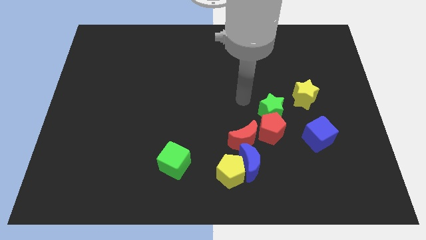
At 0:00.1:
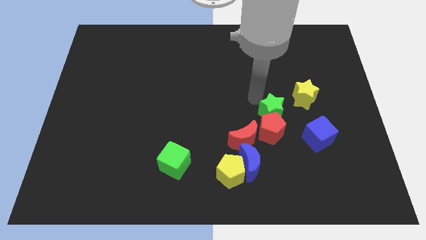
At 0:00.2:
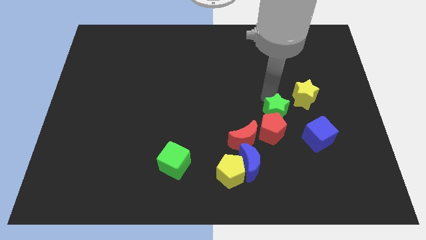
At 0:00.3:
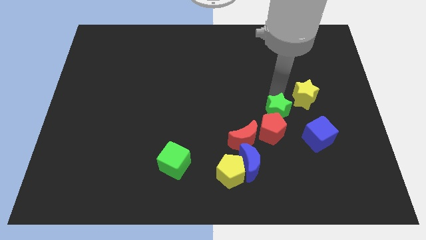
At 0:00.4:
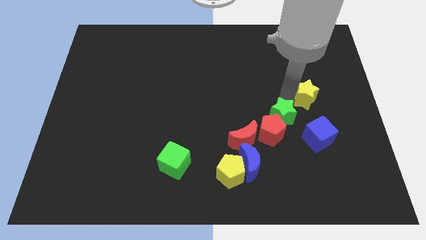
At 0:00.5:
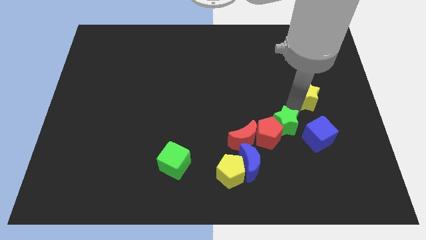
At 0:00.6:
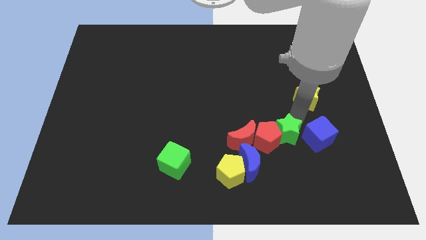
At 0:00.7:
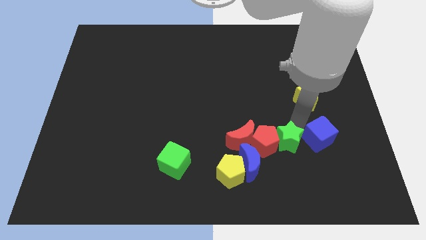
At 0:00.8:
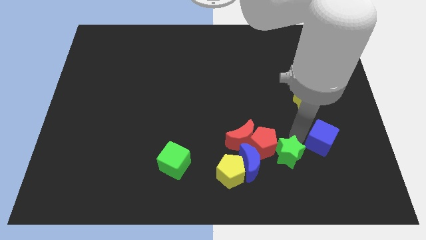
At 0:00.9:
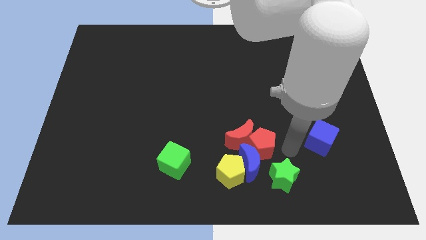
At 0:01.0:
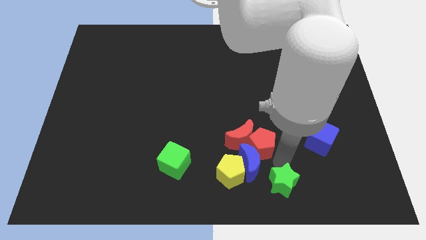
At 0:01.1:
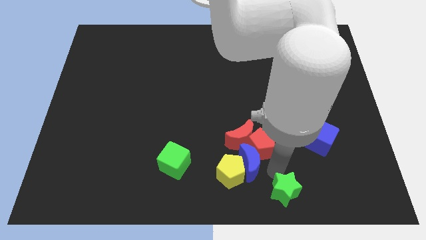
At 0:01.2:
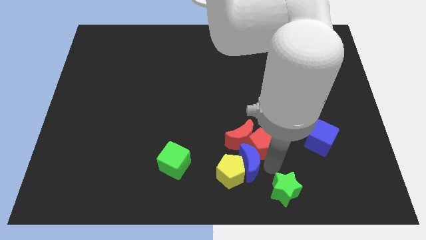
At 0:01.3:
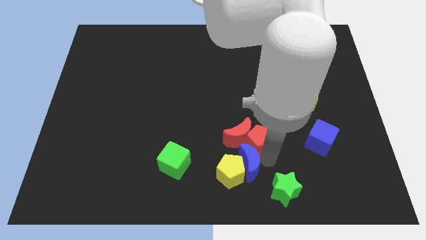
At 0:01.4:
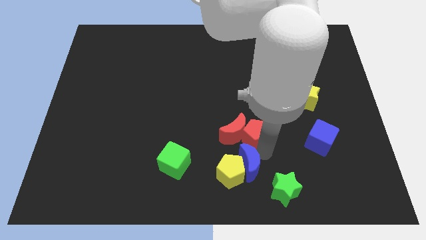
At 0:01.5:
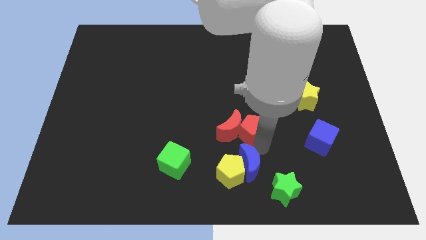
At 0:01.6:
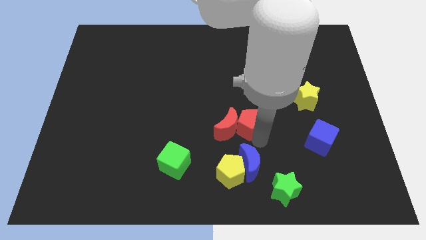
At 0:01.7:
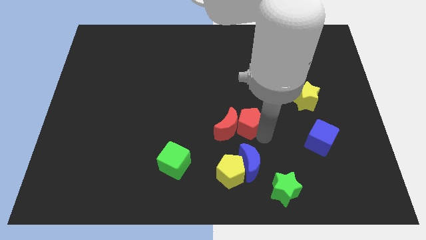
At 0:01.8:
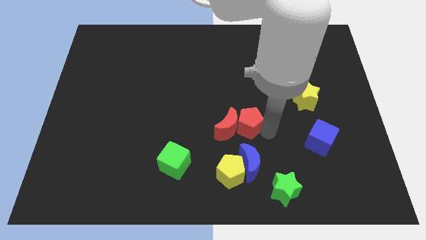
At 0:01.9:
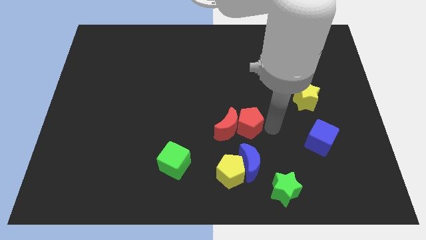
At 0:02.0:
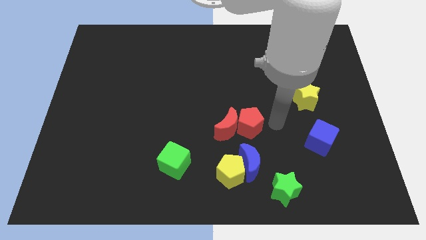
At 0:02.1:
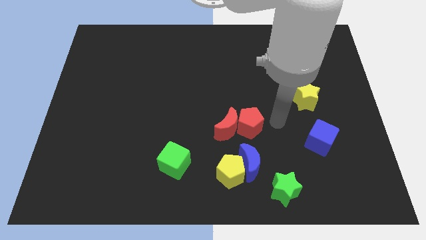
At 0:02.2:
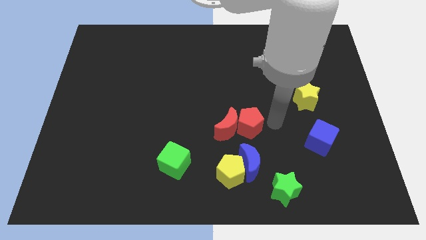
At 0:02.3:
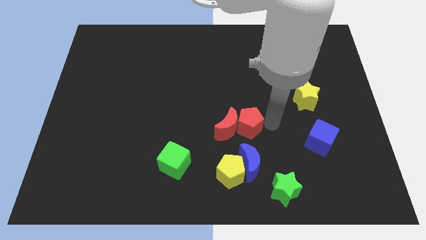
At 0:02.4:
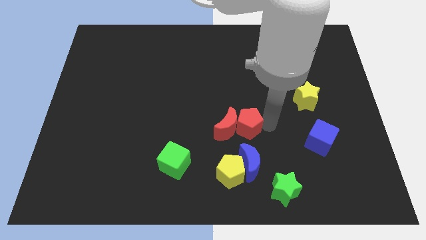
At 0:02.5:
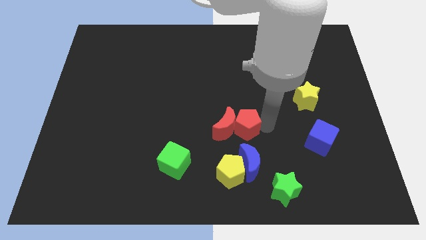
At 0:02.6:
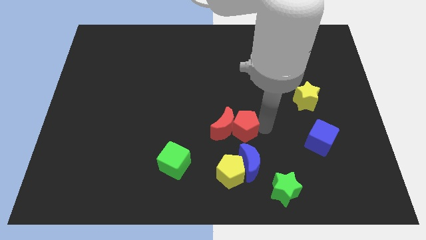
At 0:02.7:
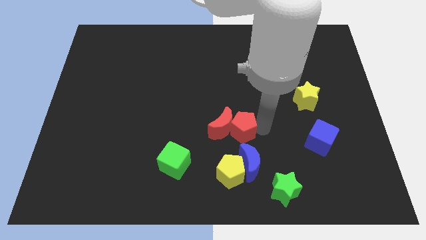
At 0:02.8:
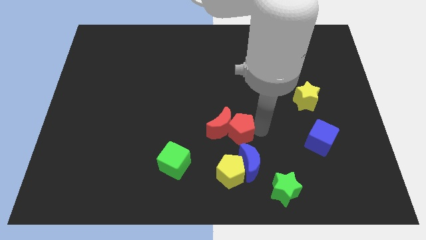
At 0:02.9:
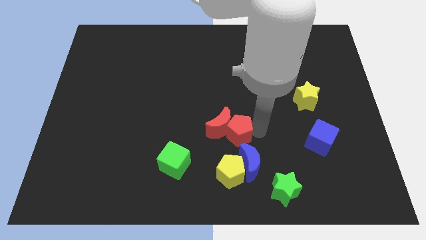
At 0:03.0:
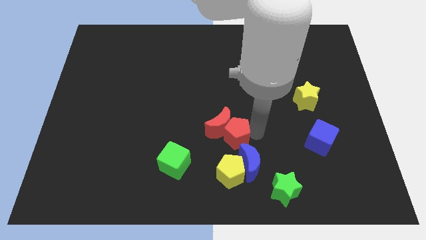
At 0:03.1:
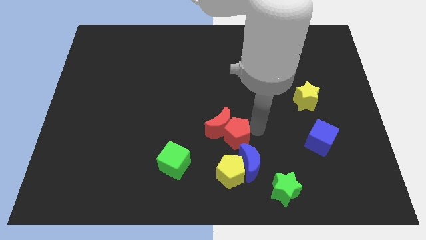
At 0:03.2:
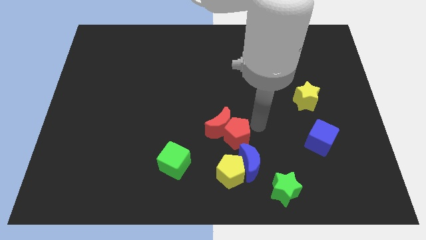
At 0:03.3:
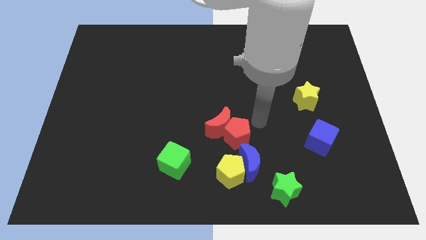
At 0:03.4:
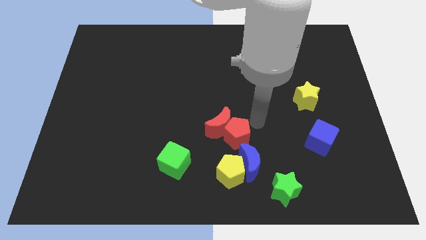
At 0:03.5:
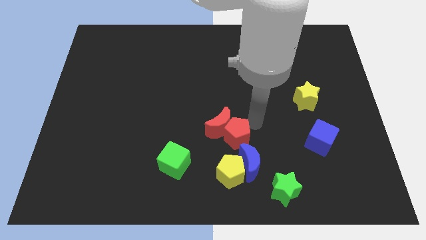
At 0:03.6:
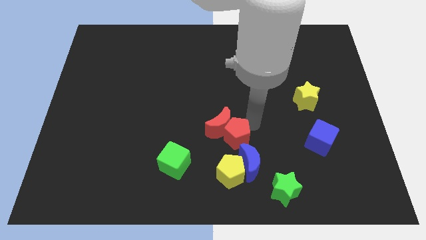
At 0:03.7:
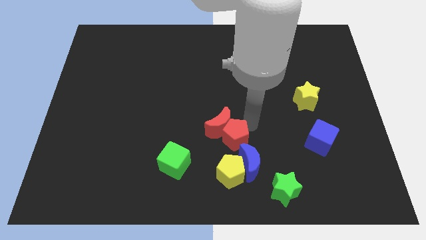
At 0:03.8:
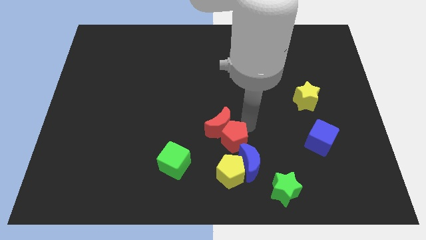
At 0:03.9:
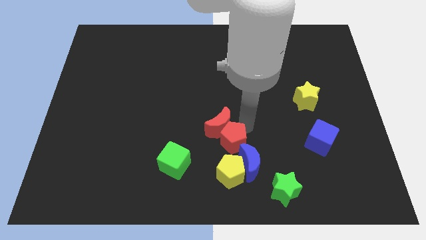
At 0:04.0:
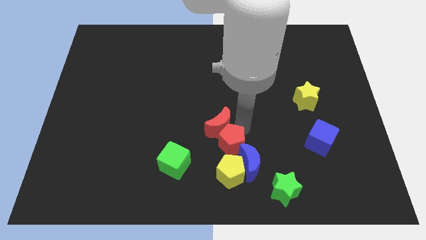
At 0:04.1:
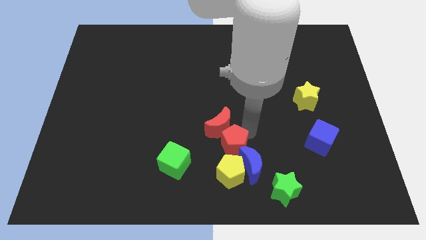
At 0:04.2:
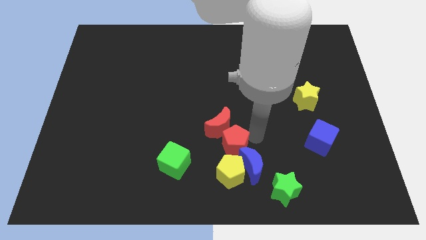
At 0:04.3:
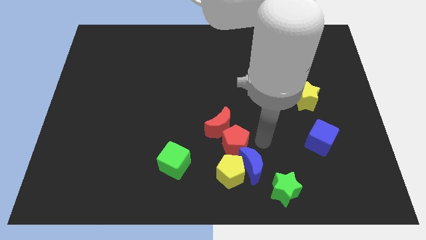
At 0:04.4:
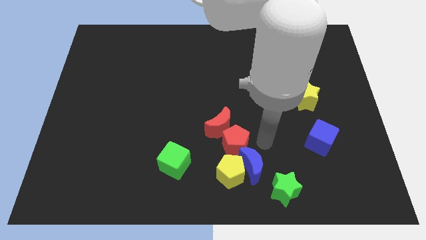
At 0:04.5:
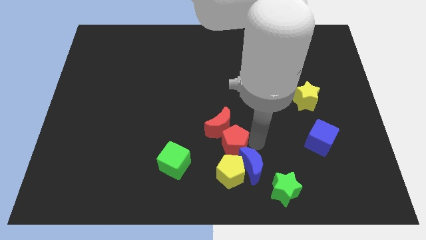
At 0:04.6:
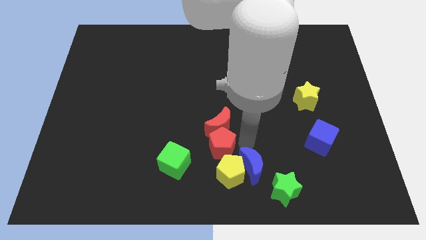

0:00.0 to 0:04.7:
push the red pentagon to the bottom left side of the red moon

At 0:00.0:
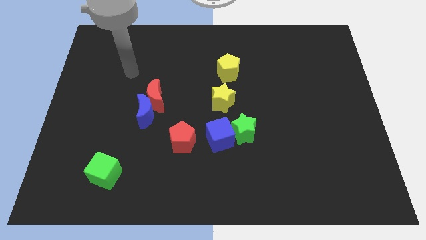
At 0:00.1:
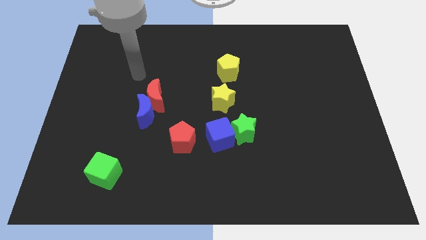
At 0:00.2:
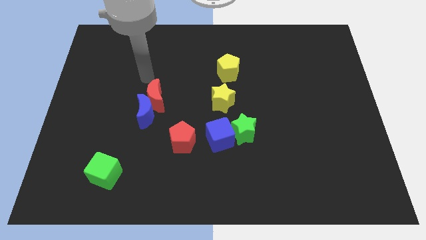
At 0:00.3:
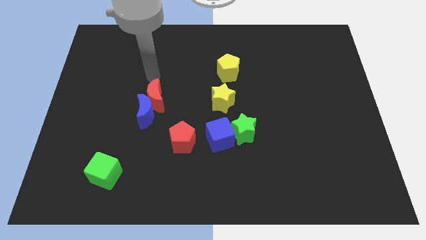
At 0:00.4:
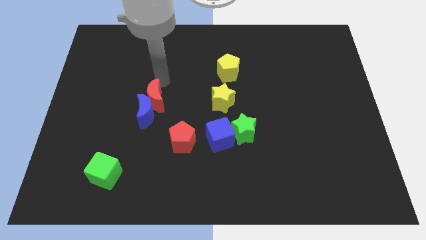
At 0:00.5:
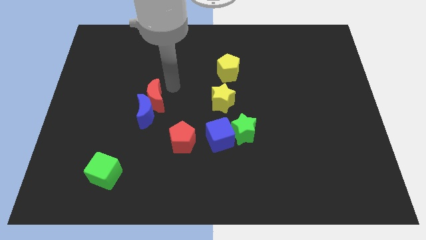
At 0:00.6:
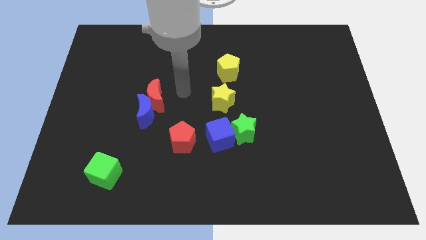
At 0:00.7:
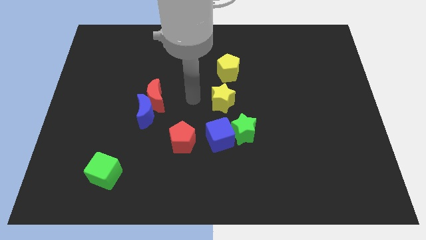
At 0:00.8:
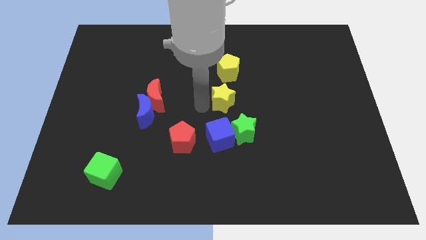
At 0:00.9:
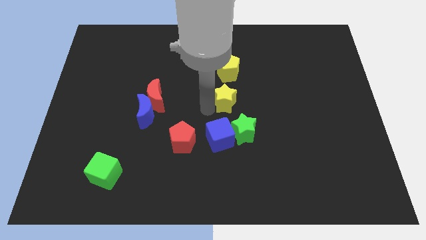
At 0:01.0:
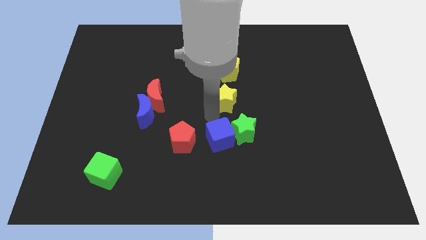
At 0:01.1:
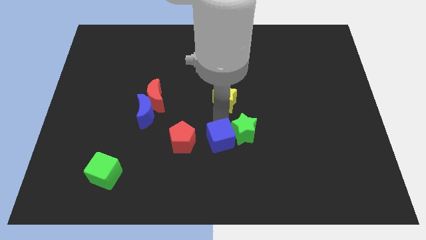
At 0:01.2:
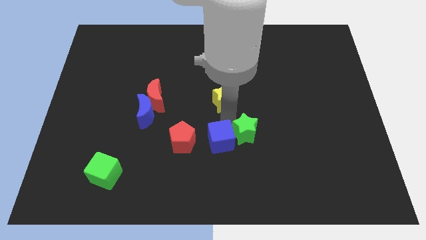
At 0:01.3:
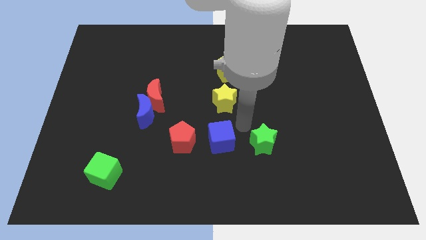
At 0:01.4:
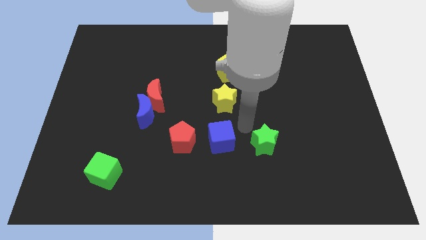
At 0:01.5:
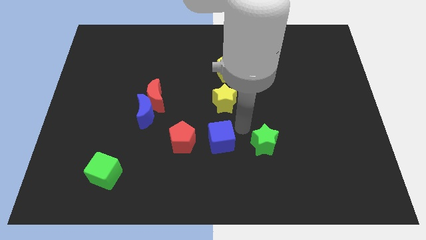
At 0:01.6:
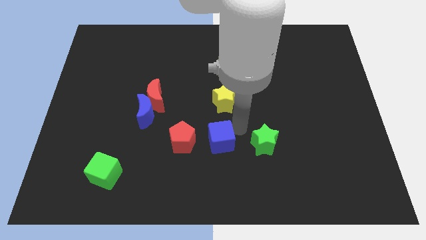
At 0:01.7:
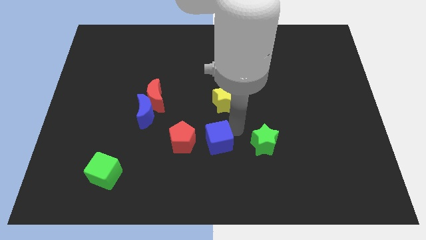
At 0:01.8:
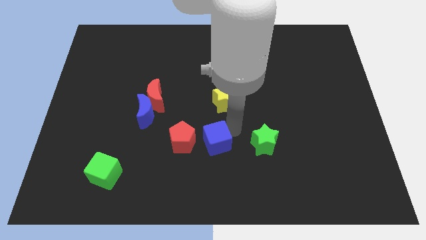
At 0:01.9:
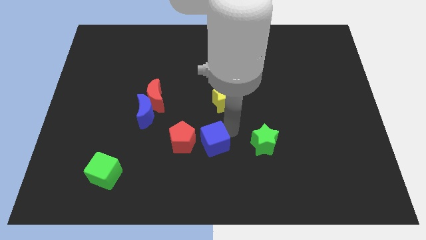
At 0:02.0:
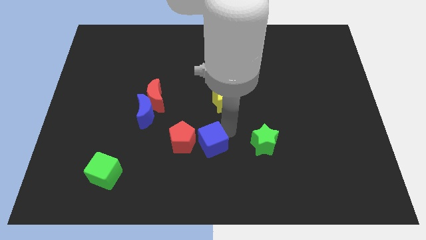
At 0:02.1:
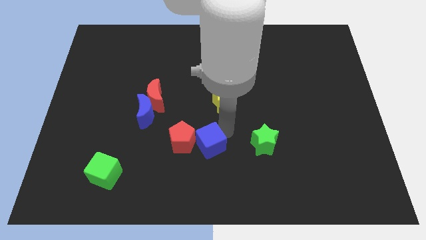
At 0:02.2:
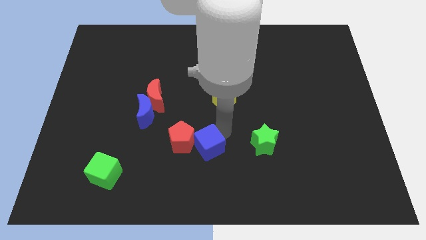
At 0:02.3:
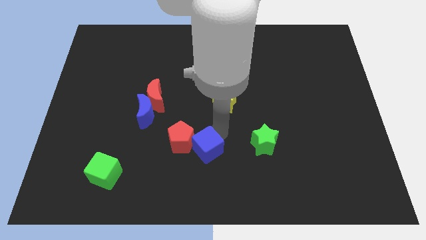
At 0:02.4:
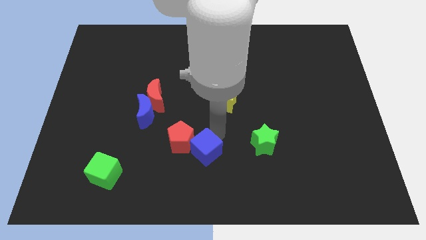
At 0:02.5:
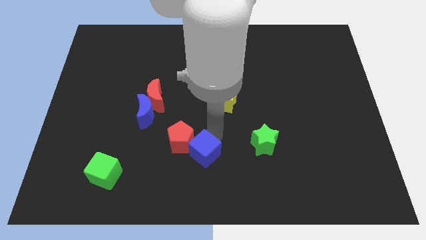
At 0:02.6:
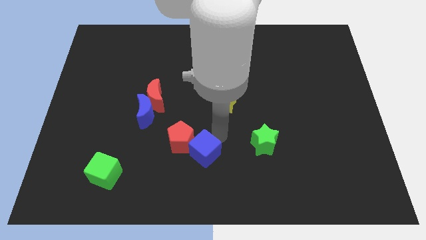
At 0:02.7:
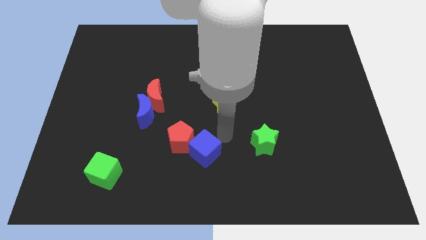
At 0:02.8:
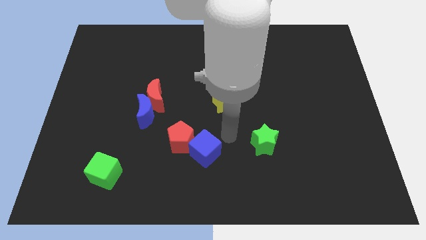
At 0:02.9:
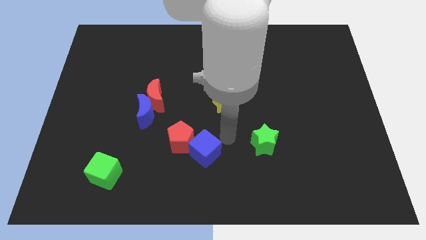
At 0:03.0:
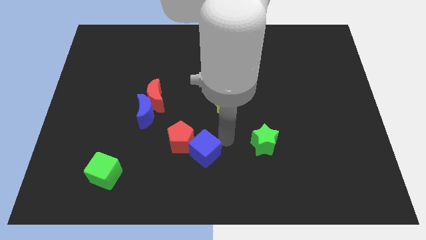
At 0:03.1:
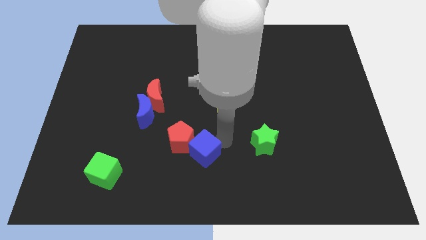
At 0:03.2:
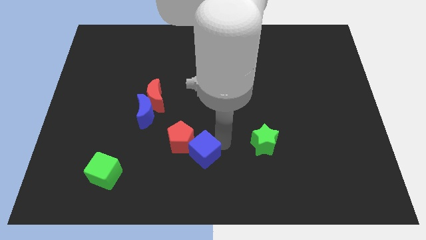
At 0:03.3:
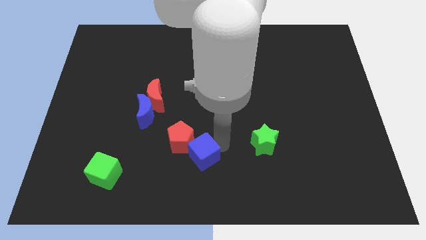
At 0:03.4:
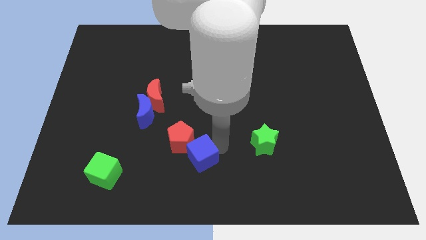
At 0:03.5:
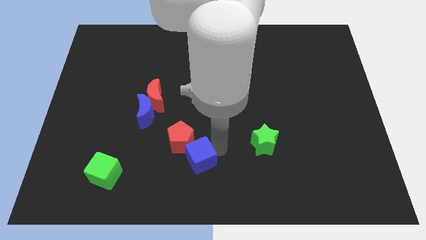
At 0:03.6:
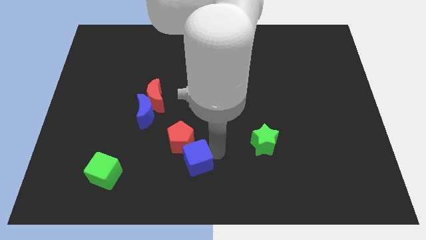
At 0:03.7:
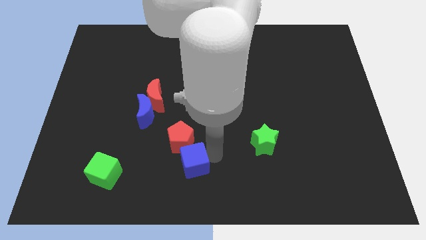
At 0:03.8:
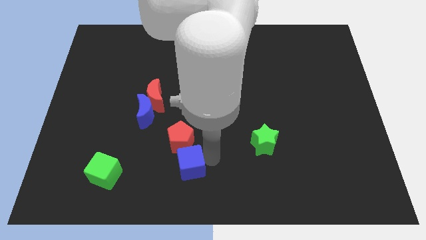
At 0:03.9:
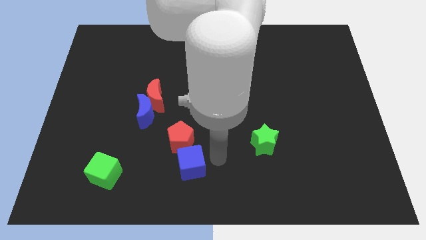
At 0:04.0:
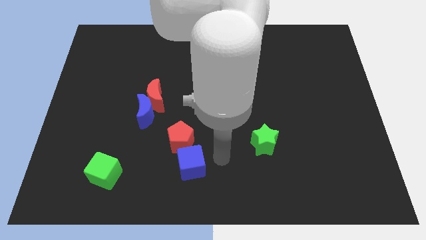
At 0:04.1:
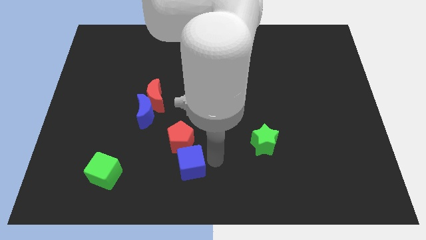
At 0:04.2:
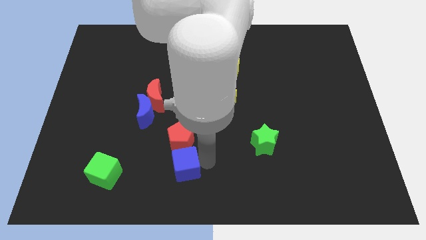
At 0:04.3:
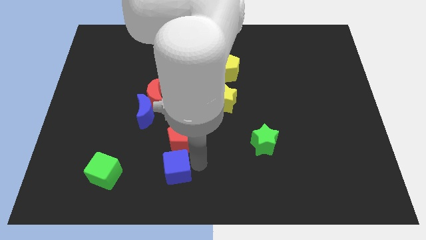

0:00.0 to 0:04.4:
put the blue cube to the right of the green cube
